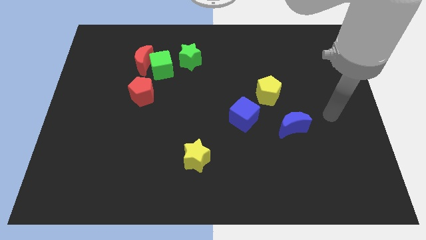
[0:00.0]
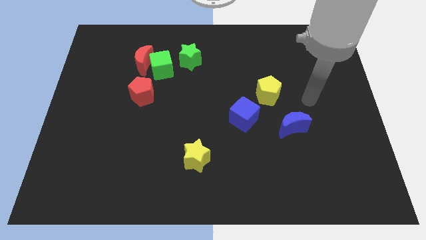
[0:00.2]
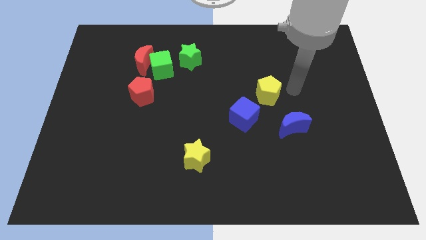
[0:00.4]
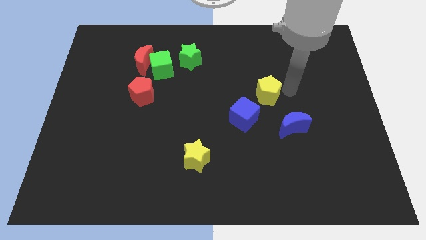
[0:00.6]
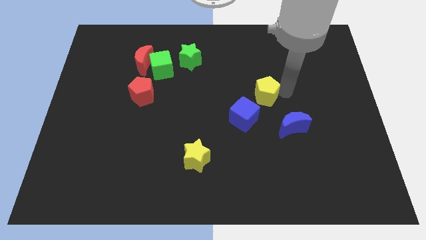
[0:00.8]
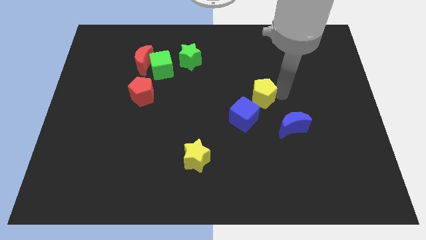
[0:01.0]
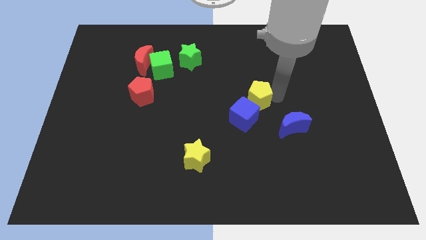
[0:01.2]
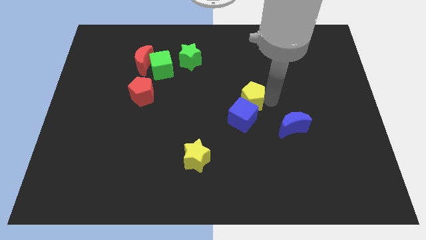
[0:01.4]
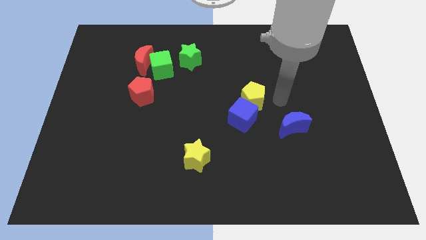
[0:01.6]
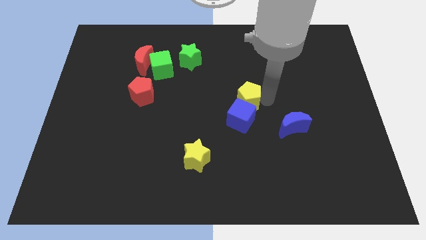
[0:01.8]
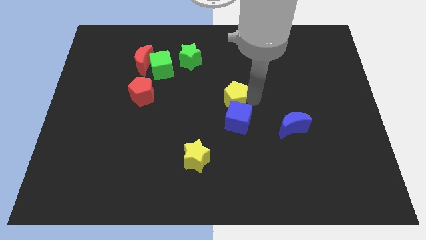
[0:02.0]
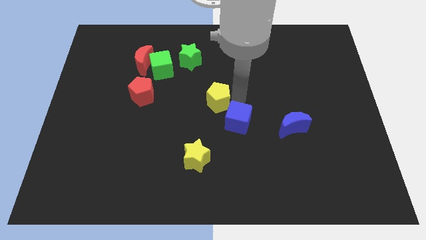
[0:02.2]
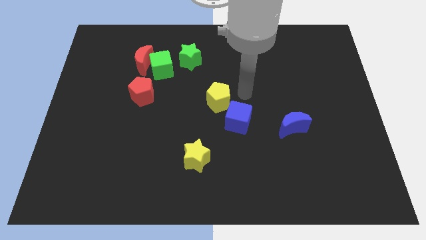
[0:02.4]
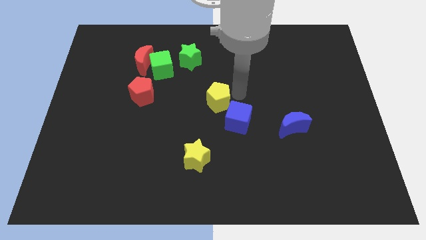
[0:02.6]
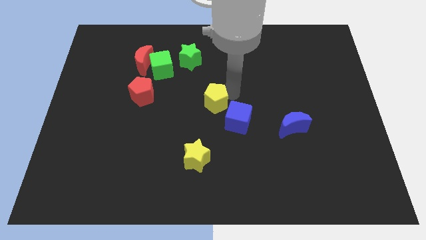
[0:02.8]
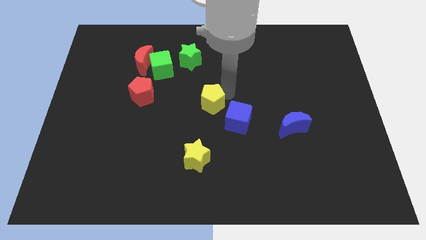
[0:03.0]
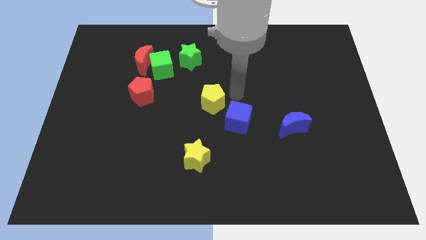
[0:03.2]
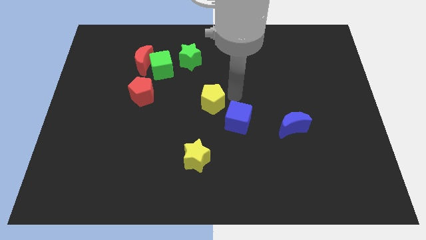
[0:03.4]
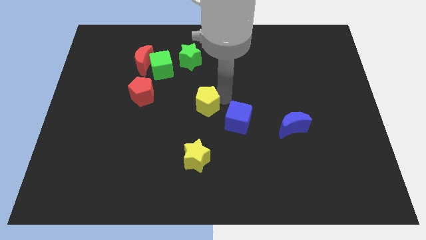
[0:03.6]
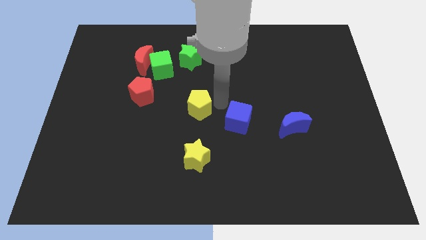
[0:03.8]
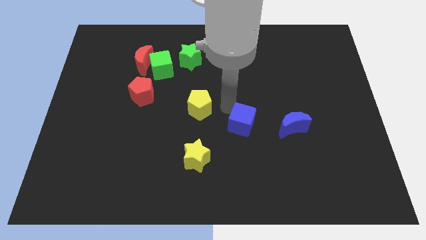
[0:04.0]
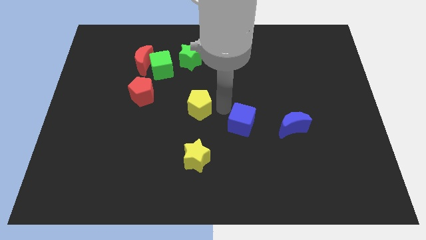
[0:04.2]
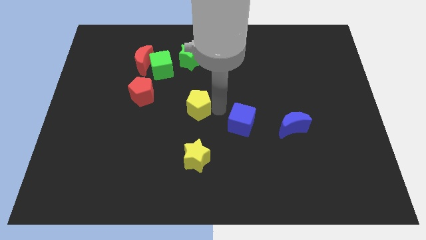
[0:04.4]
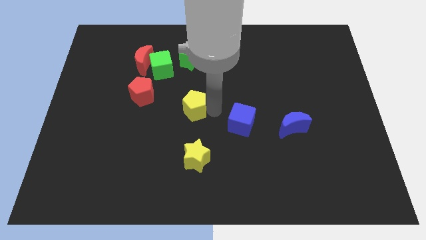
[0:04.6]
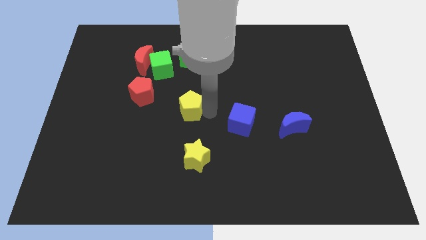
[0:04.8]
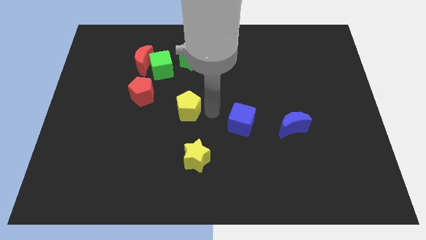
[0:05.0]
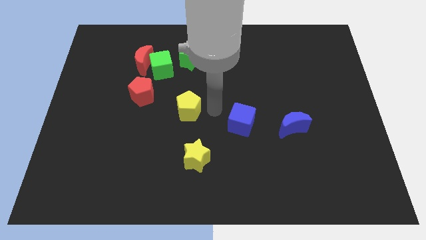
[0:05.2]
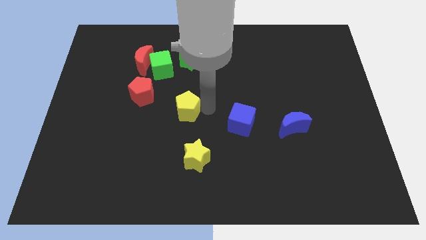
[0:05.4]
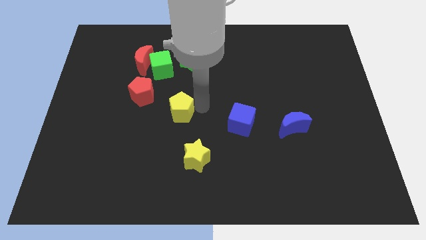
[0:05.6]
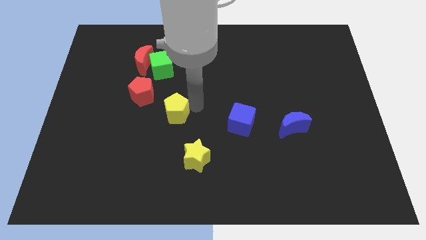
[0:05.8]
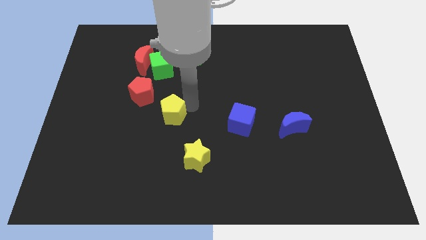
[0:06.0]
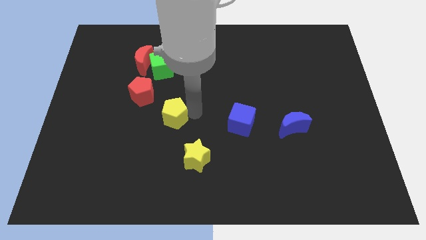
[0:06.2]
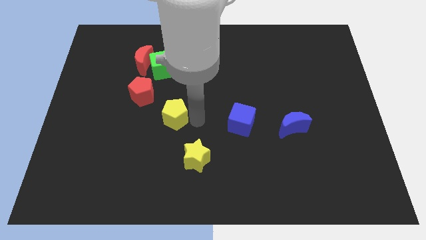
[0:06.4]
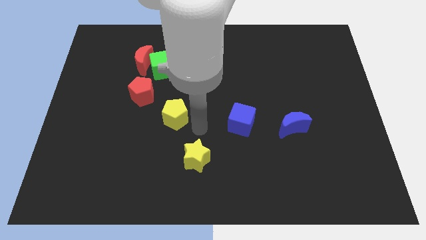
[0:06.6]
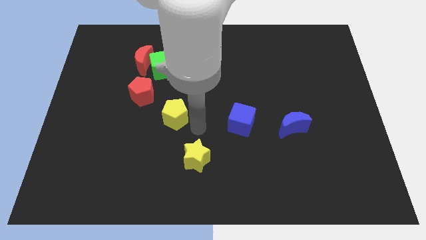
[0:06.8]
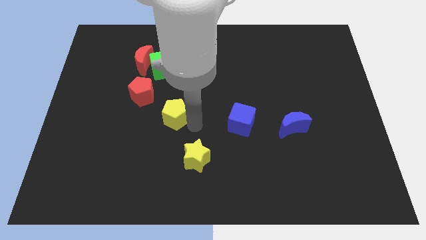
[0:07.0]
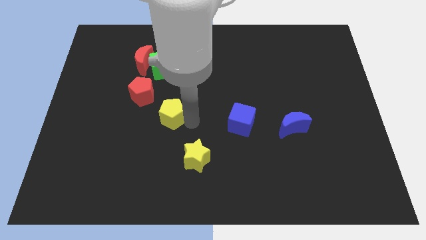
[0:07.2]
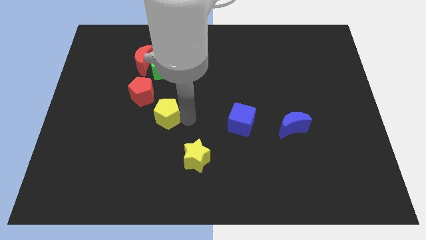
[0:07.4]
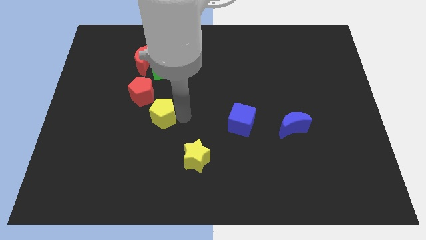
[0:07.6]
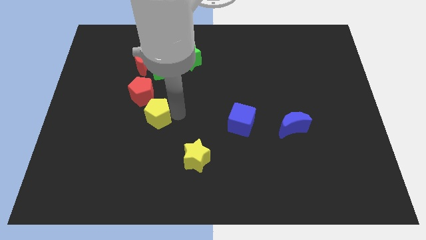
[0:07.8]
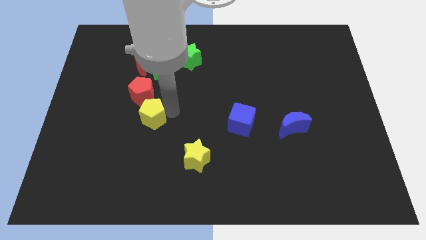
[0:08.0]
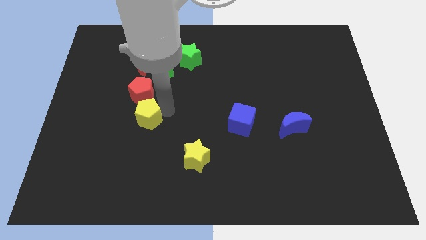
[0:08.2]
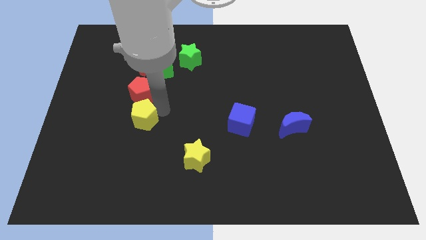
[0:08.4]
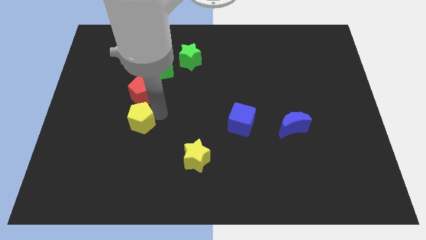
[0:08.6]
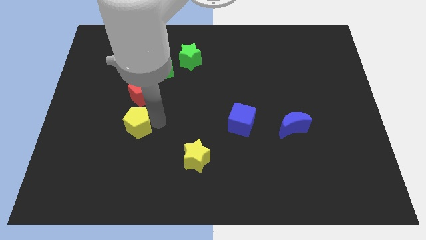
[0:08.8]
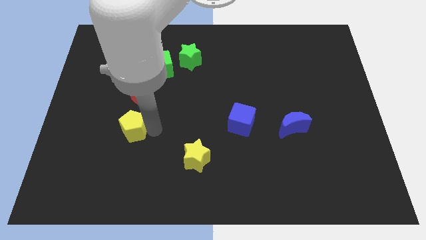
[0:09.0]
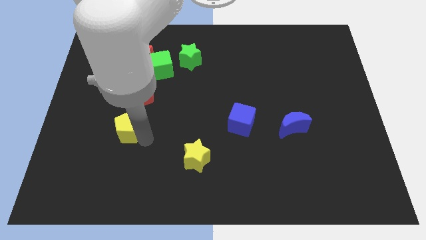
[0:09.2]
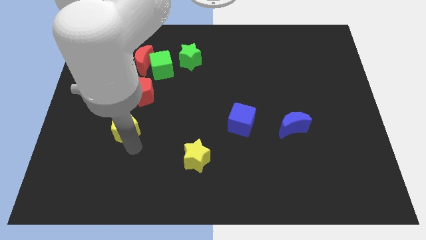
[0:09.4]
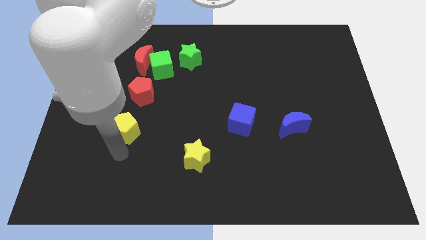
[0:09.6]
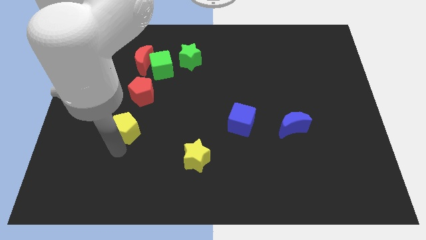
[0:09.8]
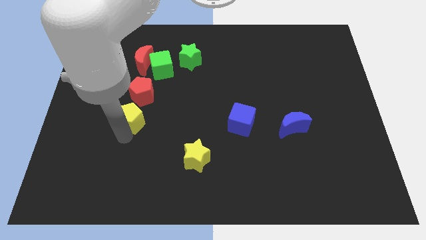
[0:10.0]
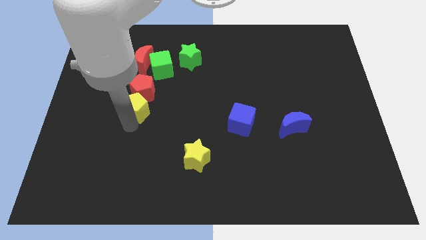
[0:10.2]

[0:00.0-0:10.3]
put the yellow pentagon to the bottom of the red moon

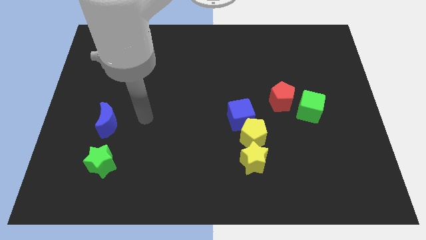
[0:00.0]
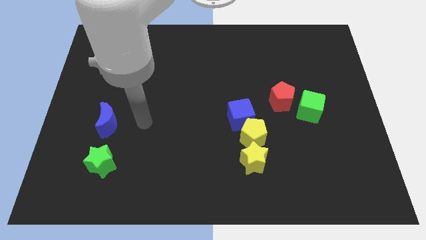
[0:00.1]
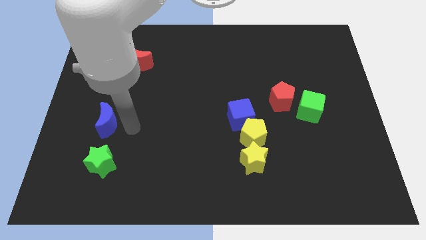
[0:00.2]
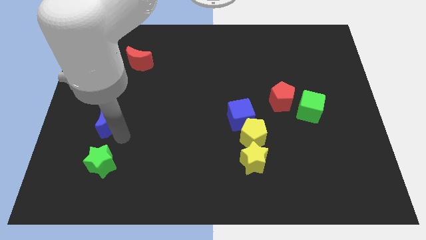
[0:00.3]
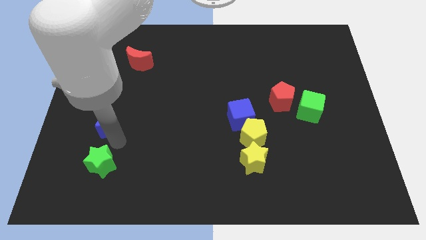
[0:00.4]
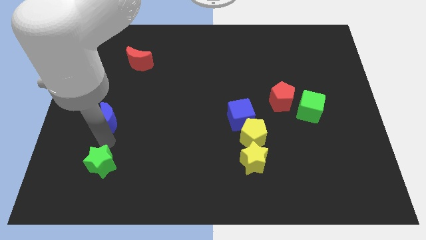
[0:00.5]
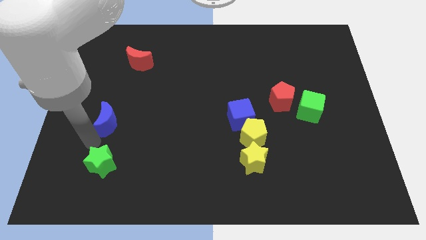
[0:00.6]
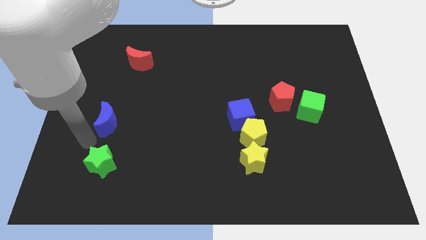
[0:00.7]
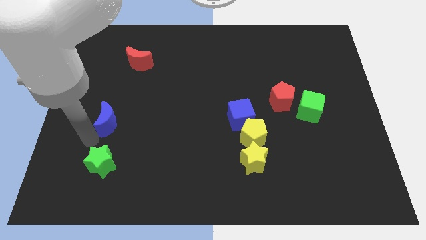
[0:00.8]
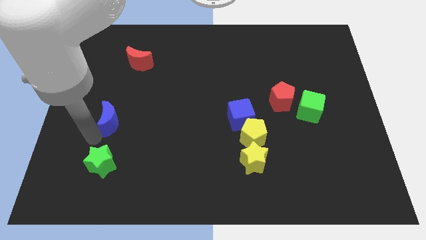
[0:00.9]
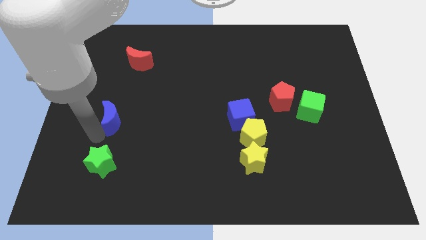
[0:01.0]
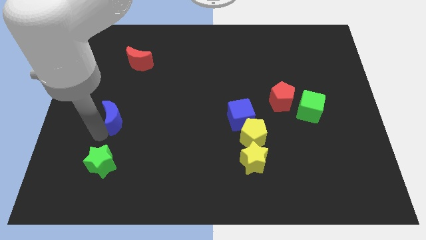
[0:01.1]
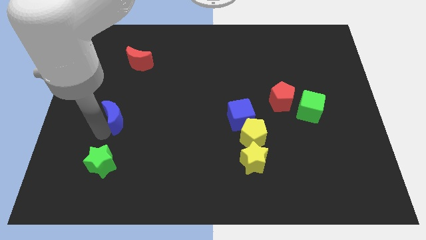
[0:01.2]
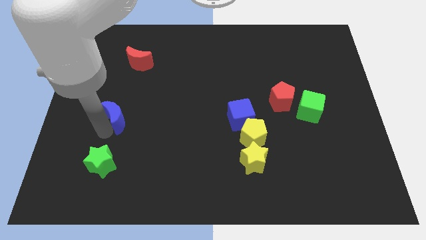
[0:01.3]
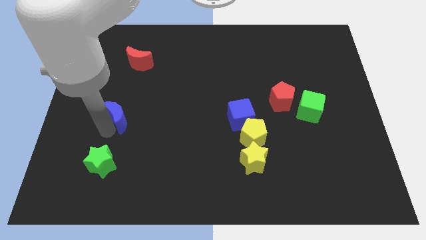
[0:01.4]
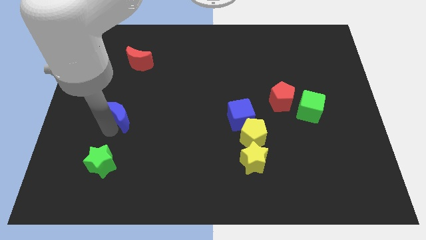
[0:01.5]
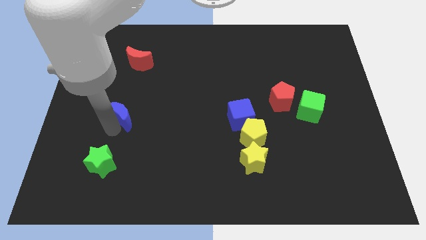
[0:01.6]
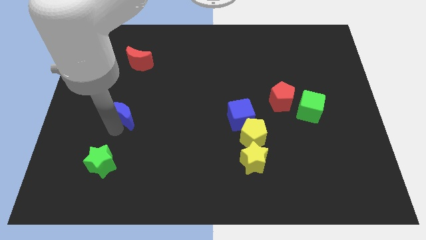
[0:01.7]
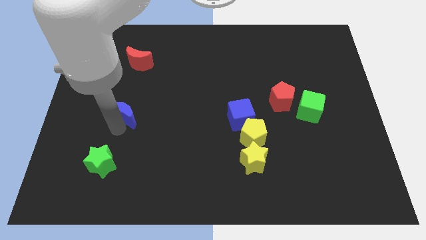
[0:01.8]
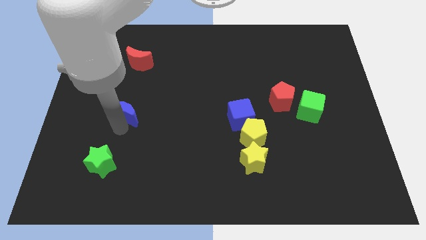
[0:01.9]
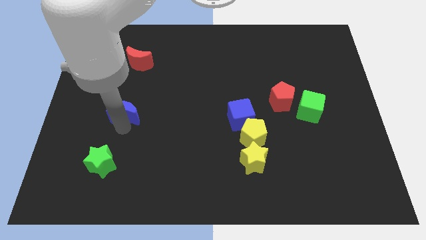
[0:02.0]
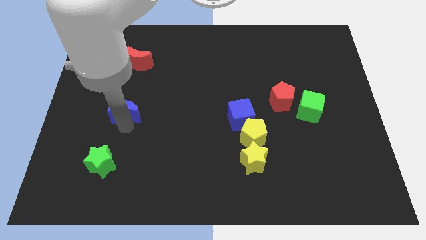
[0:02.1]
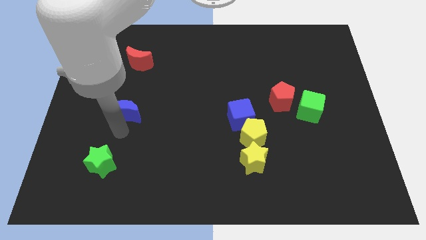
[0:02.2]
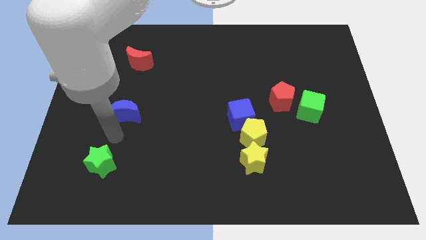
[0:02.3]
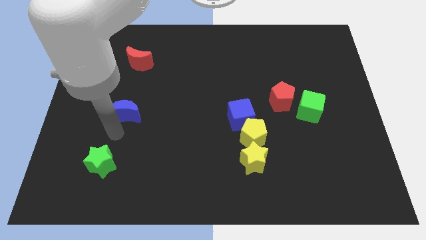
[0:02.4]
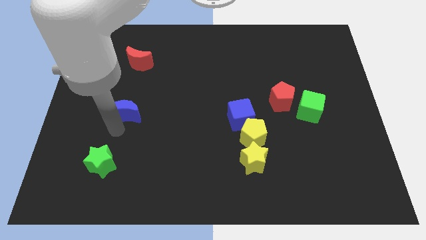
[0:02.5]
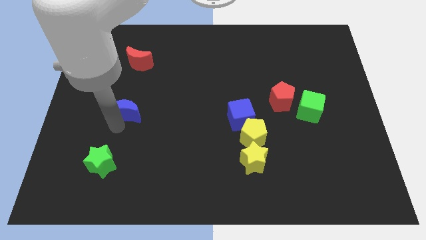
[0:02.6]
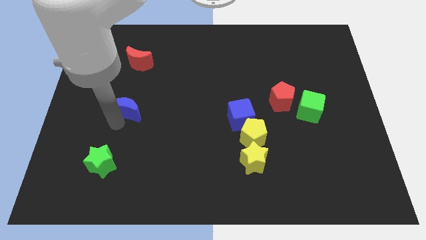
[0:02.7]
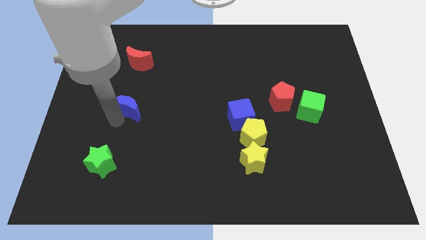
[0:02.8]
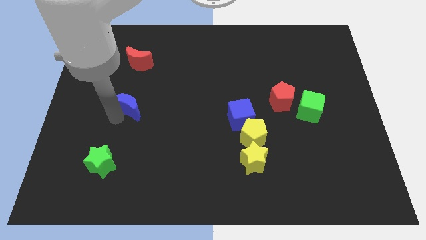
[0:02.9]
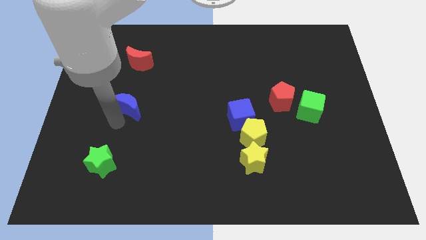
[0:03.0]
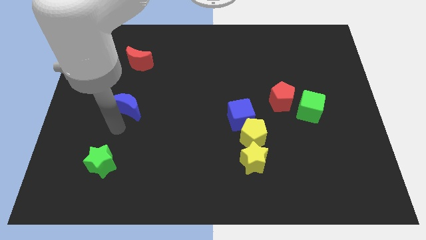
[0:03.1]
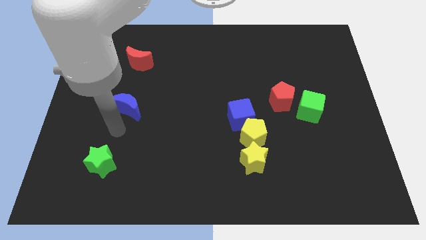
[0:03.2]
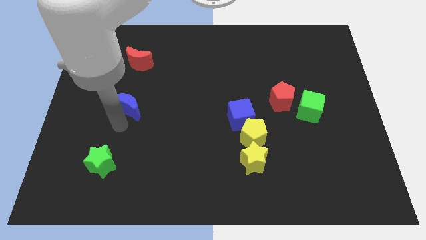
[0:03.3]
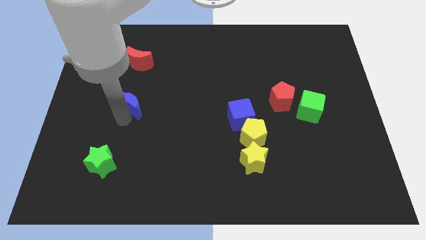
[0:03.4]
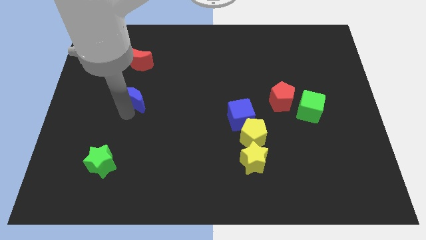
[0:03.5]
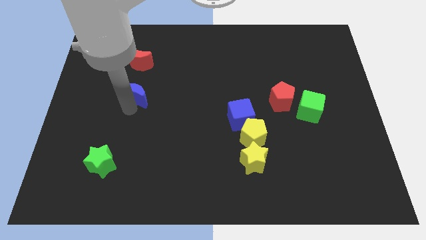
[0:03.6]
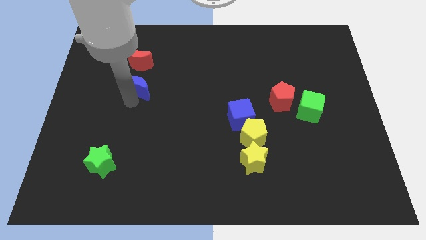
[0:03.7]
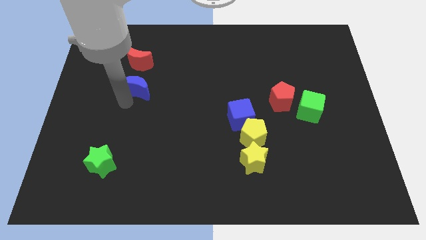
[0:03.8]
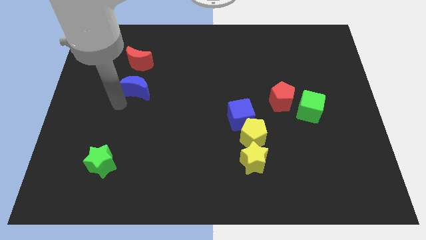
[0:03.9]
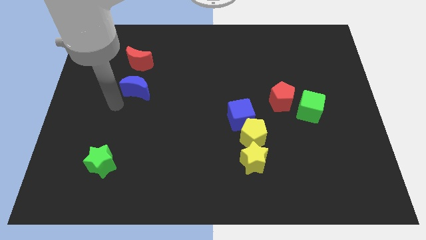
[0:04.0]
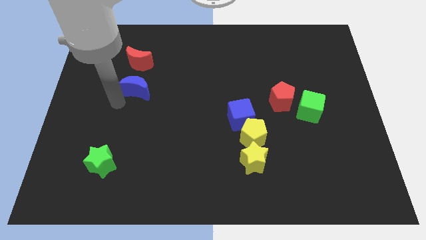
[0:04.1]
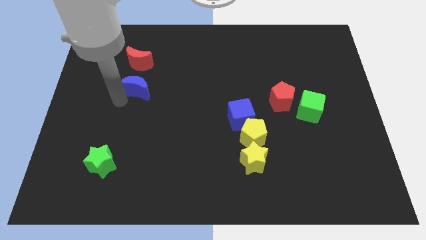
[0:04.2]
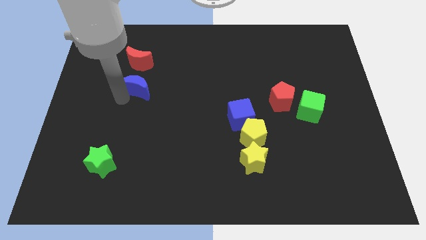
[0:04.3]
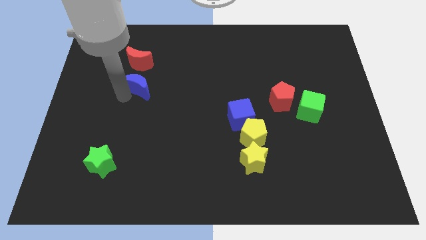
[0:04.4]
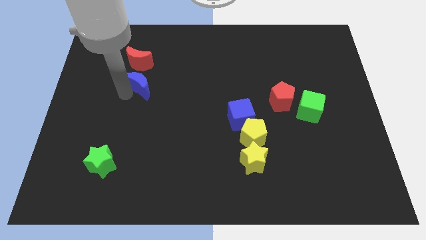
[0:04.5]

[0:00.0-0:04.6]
put the blue moon to the bottom right of the red moon
